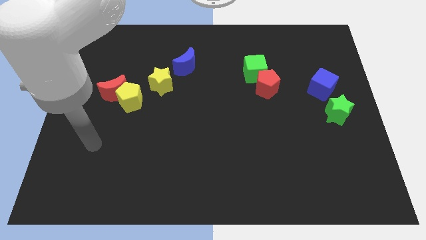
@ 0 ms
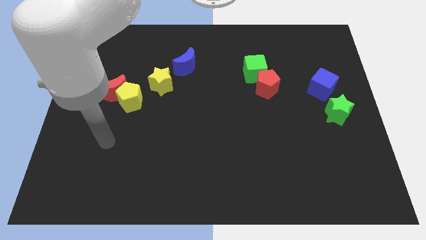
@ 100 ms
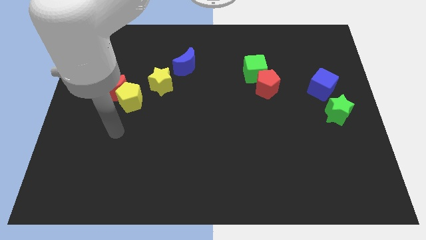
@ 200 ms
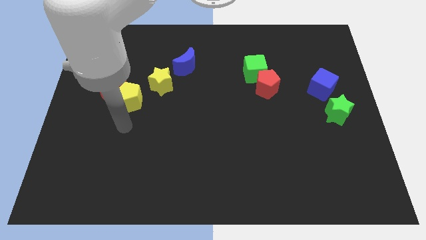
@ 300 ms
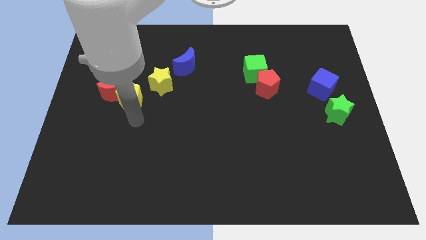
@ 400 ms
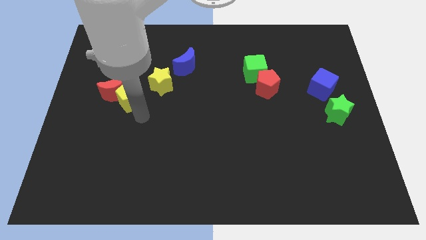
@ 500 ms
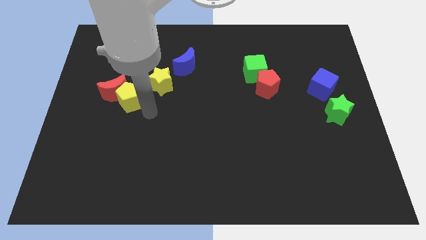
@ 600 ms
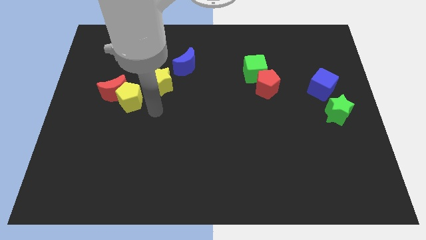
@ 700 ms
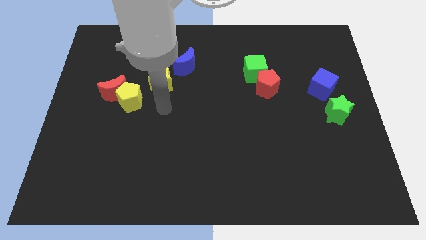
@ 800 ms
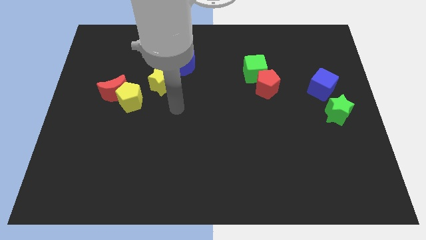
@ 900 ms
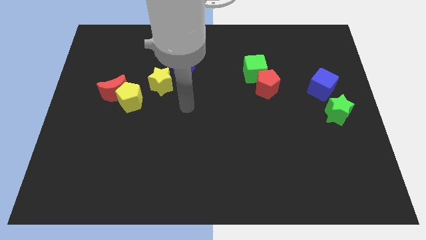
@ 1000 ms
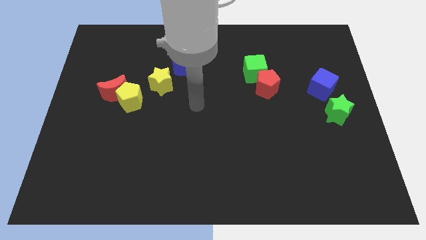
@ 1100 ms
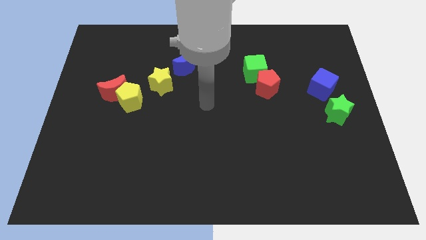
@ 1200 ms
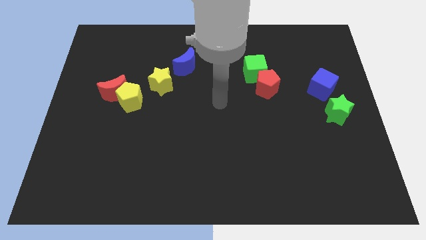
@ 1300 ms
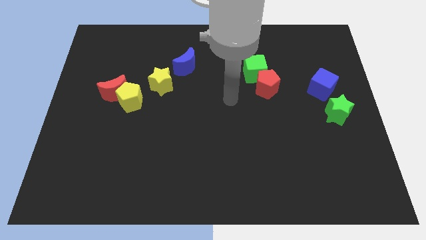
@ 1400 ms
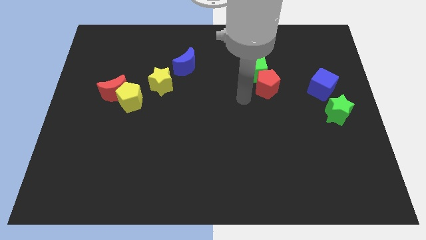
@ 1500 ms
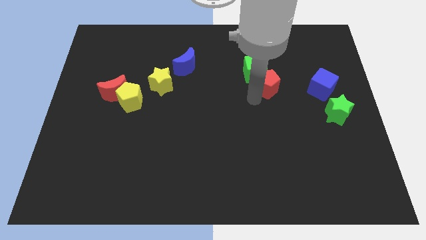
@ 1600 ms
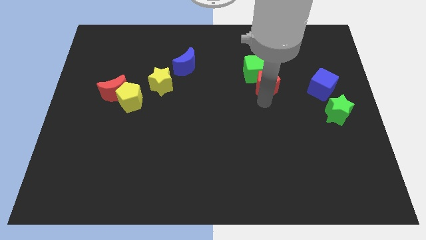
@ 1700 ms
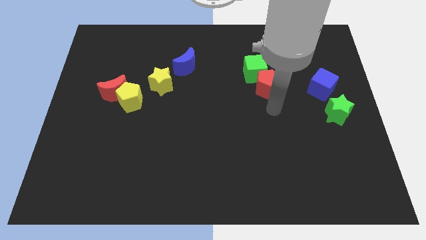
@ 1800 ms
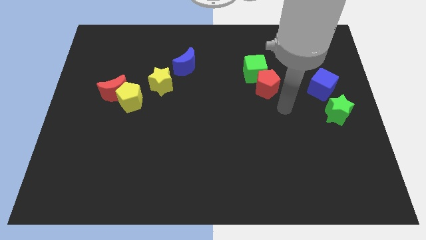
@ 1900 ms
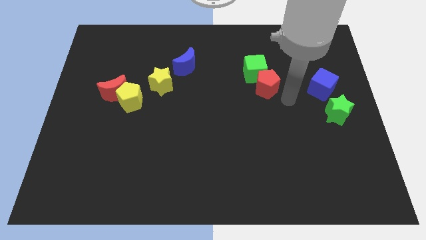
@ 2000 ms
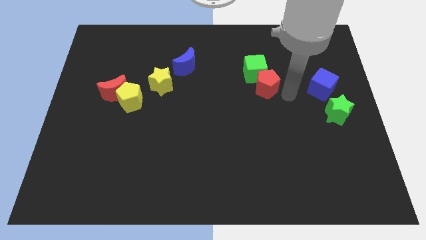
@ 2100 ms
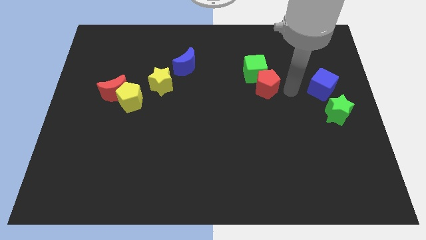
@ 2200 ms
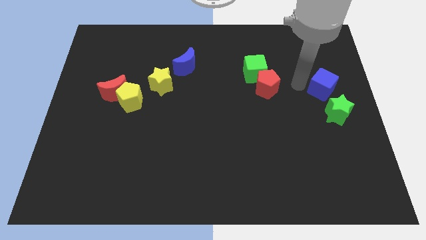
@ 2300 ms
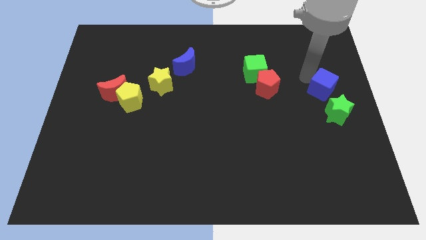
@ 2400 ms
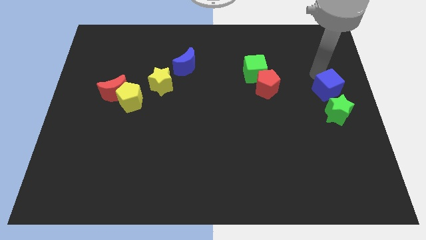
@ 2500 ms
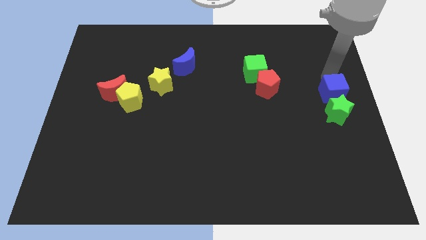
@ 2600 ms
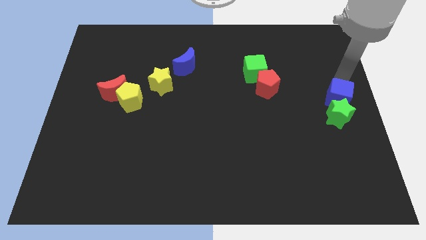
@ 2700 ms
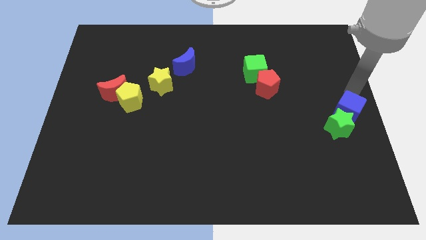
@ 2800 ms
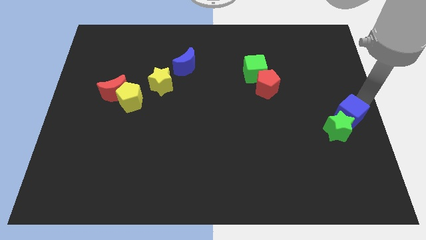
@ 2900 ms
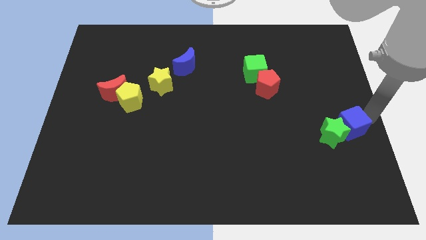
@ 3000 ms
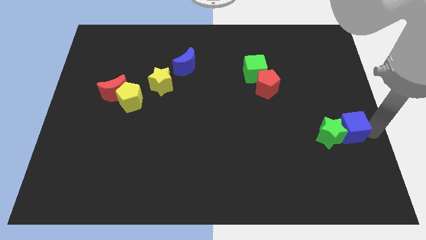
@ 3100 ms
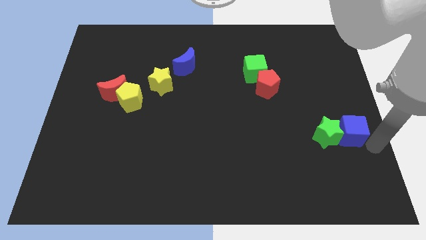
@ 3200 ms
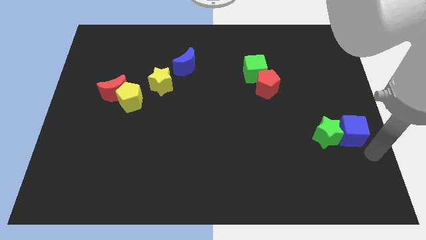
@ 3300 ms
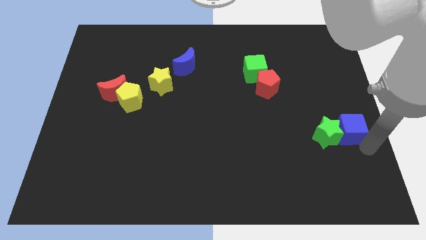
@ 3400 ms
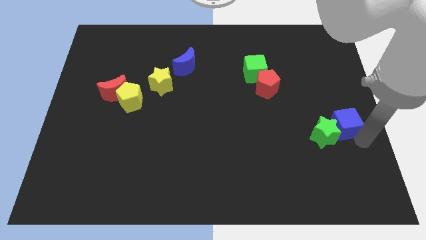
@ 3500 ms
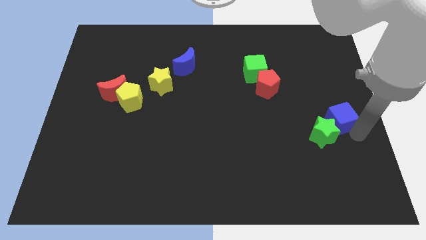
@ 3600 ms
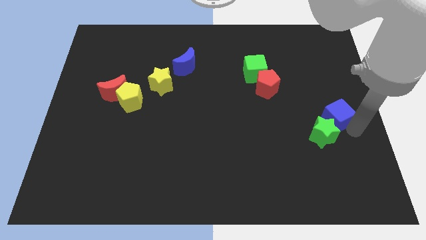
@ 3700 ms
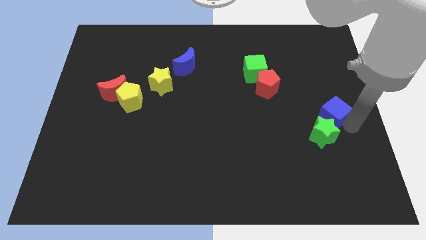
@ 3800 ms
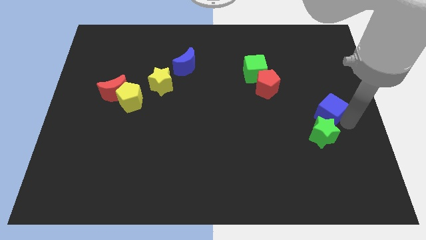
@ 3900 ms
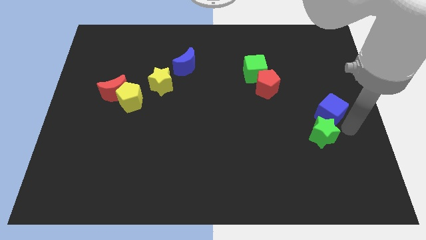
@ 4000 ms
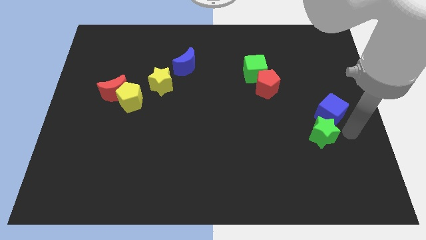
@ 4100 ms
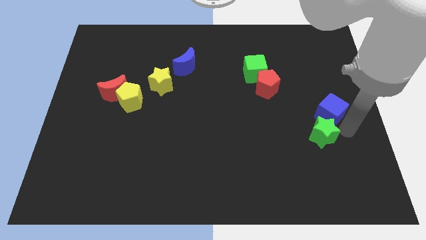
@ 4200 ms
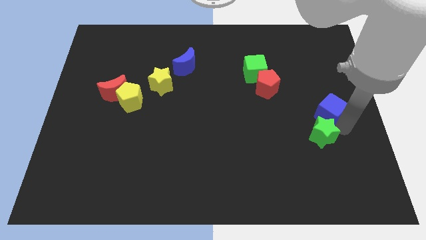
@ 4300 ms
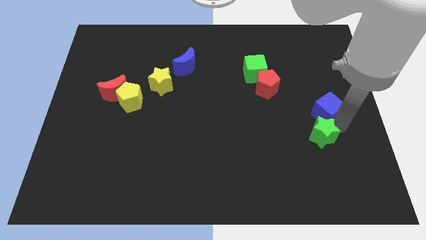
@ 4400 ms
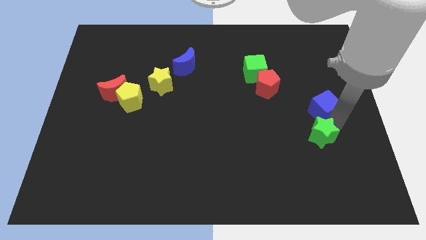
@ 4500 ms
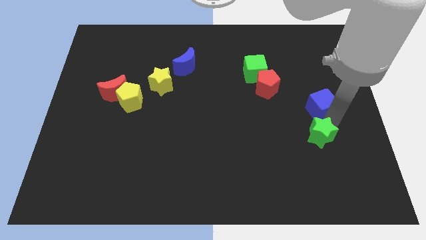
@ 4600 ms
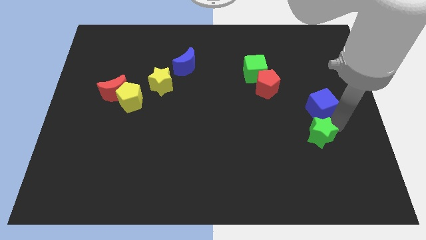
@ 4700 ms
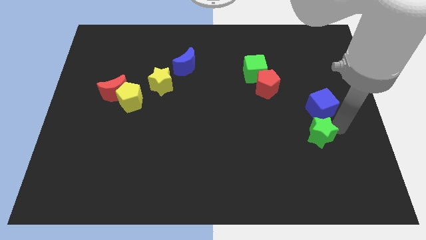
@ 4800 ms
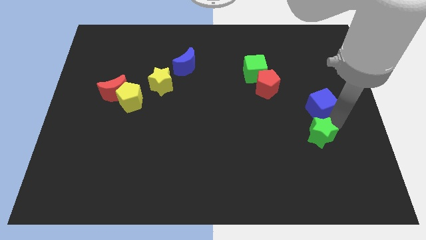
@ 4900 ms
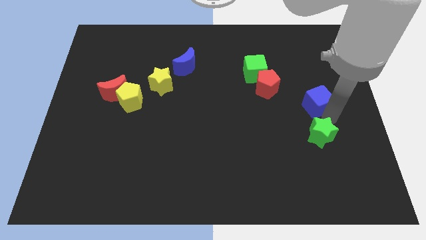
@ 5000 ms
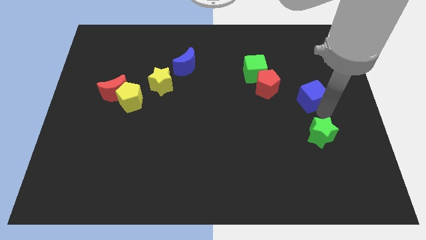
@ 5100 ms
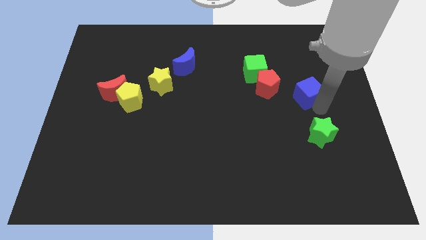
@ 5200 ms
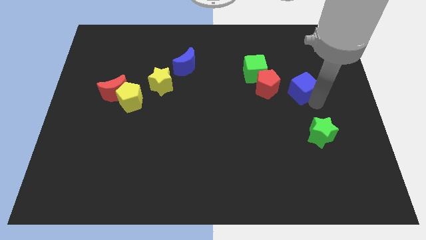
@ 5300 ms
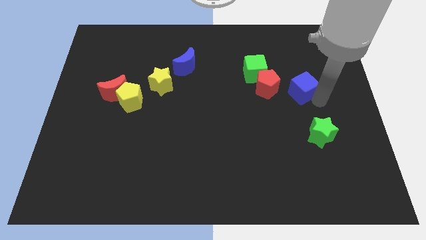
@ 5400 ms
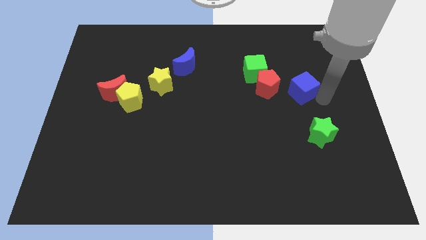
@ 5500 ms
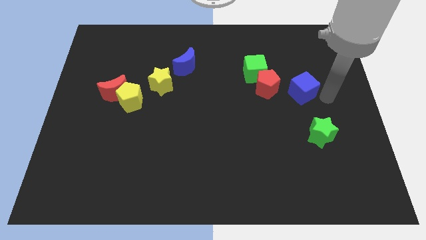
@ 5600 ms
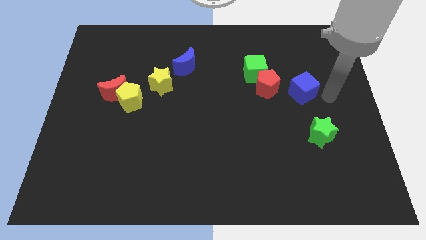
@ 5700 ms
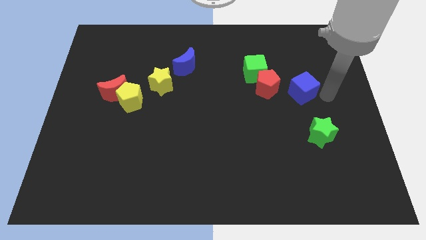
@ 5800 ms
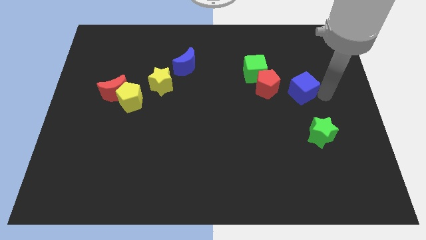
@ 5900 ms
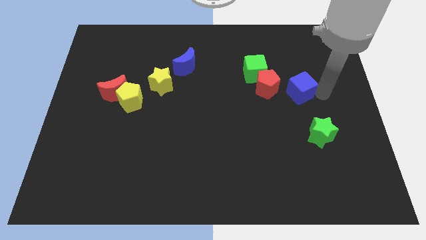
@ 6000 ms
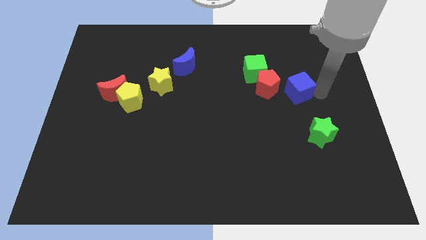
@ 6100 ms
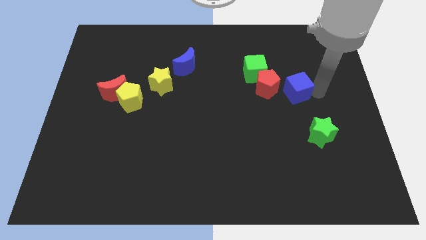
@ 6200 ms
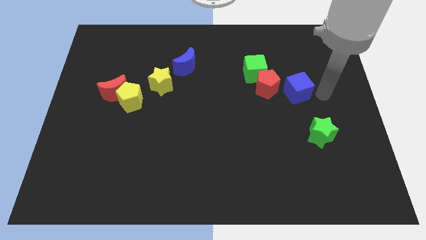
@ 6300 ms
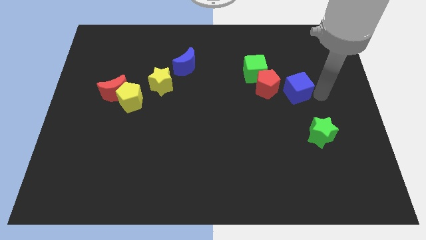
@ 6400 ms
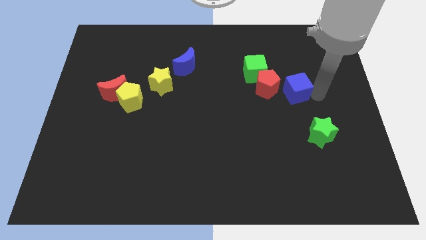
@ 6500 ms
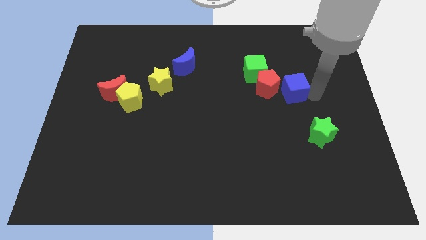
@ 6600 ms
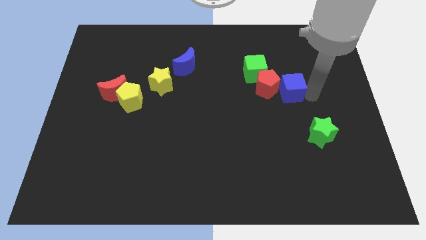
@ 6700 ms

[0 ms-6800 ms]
slide the blue cube to the red pentagon
